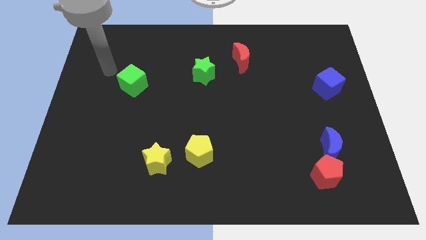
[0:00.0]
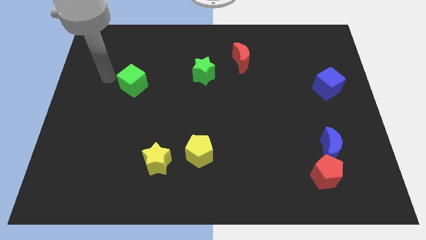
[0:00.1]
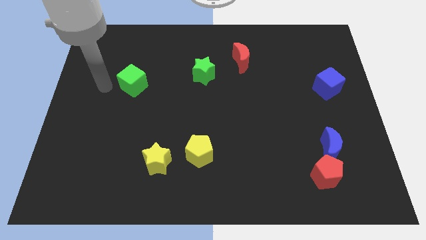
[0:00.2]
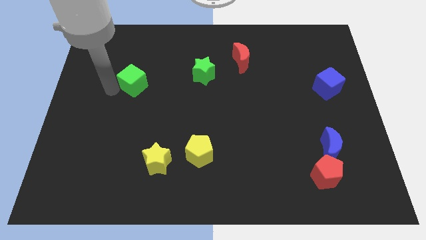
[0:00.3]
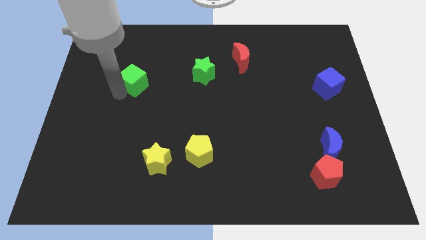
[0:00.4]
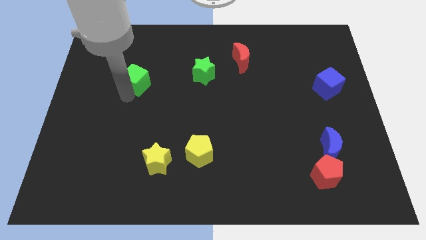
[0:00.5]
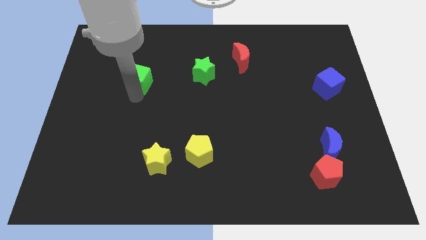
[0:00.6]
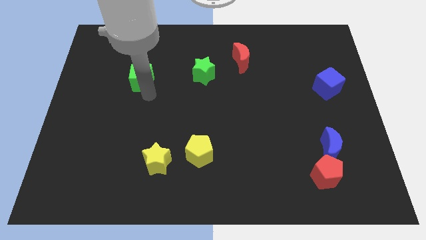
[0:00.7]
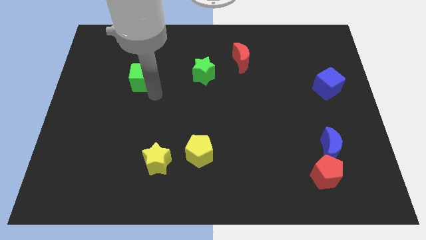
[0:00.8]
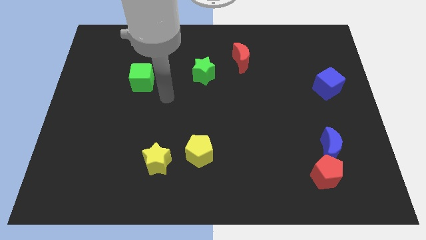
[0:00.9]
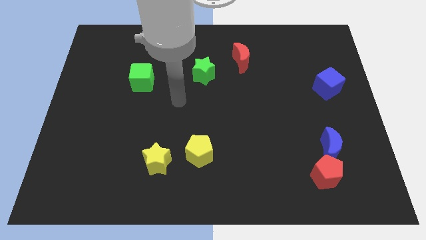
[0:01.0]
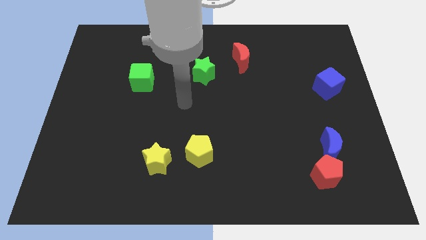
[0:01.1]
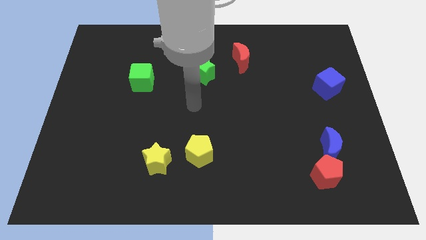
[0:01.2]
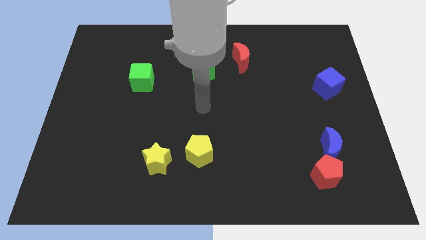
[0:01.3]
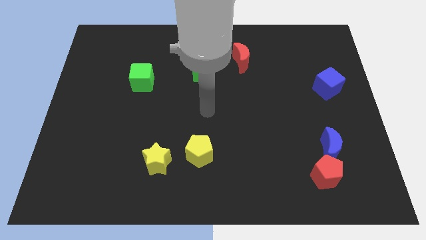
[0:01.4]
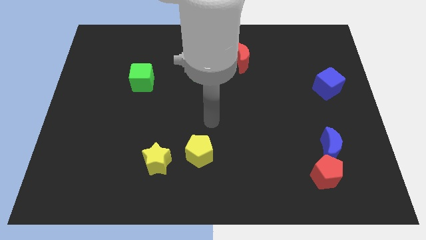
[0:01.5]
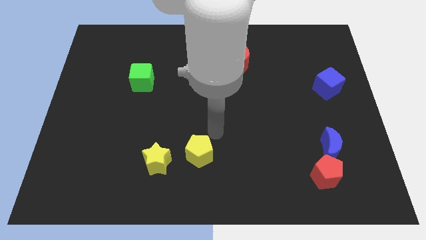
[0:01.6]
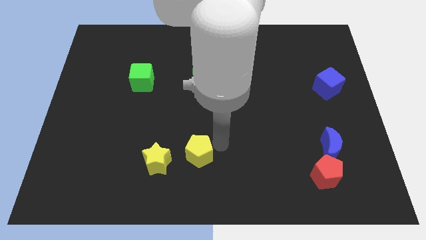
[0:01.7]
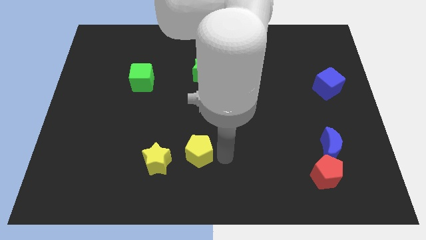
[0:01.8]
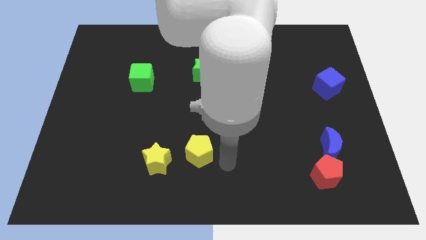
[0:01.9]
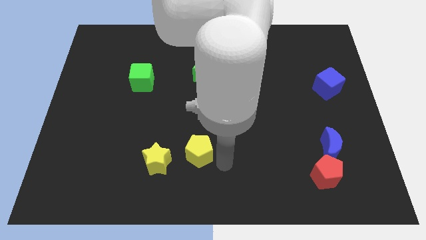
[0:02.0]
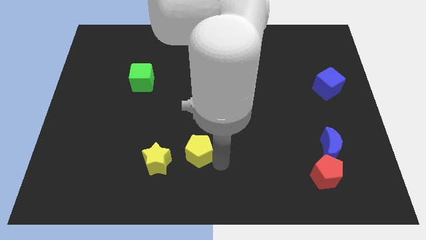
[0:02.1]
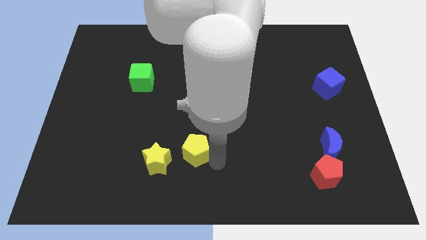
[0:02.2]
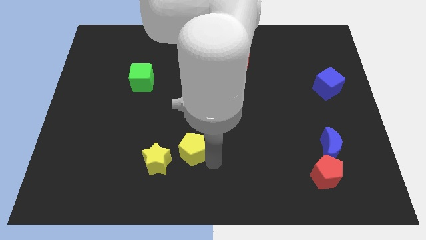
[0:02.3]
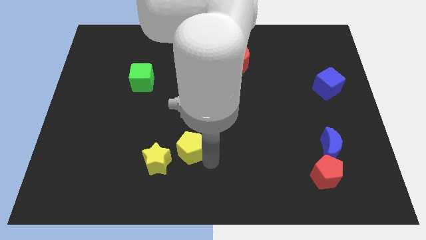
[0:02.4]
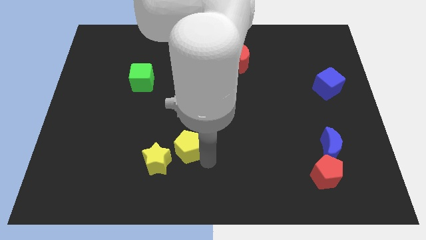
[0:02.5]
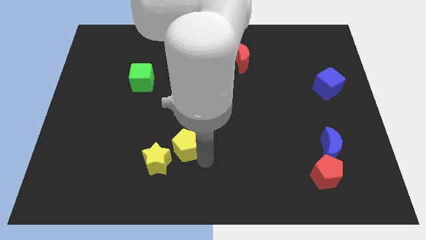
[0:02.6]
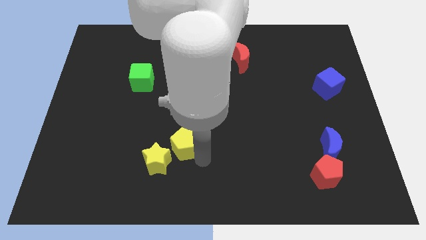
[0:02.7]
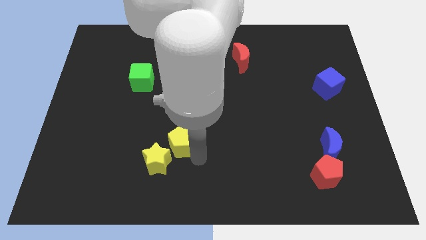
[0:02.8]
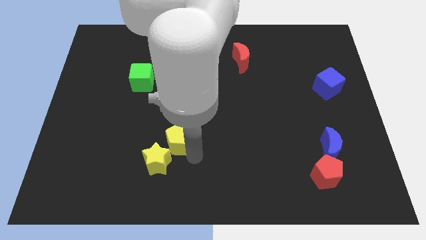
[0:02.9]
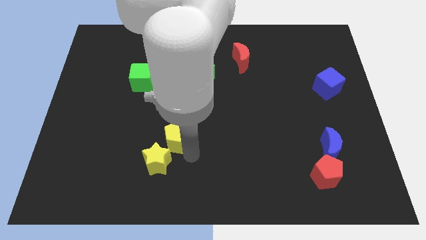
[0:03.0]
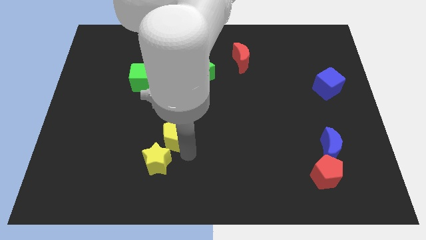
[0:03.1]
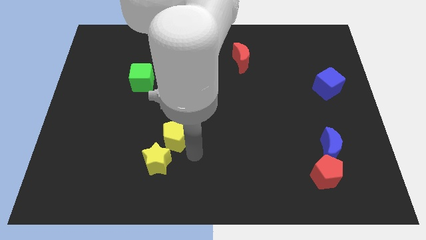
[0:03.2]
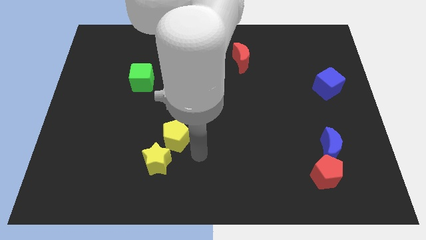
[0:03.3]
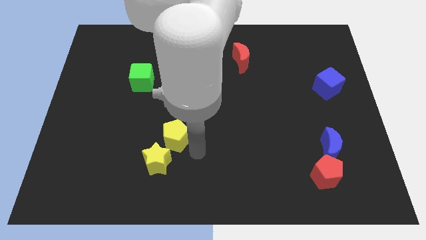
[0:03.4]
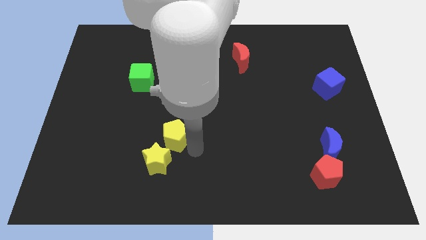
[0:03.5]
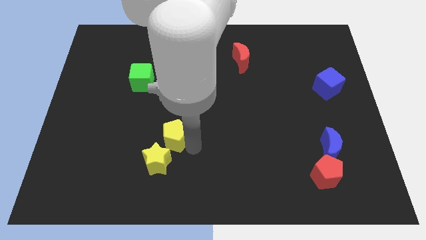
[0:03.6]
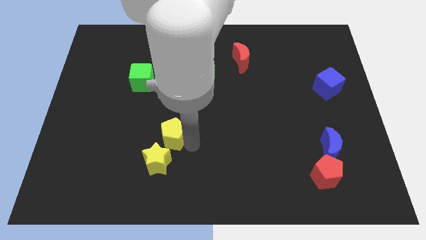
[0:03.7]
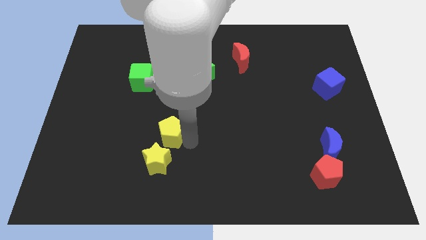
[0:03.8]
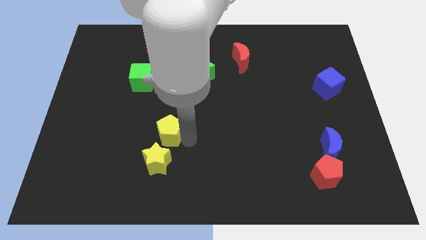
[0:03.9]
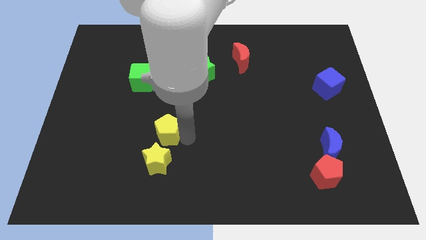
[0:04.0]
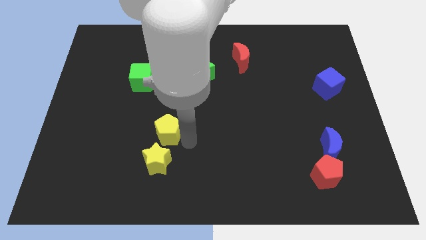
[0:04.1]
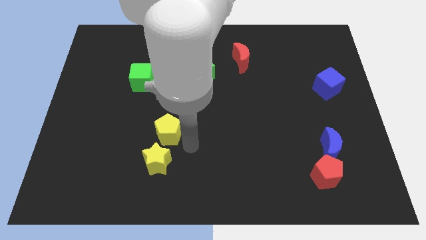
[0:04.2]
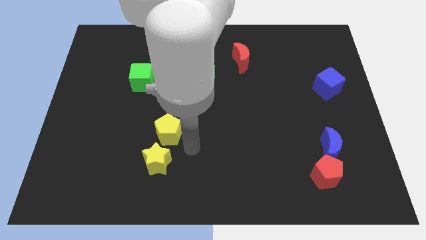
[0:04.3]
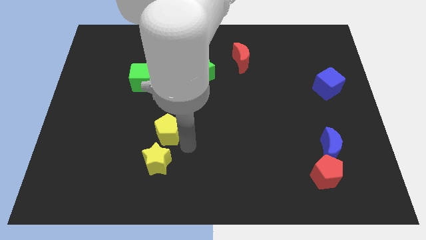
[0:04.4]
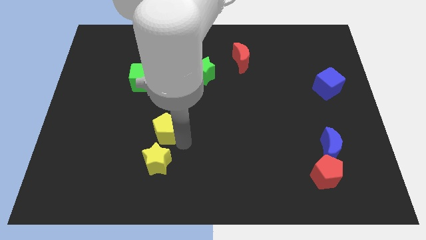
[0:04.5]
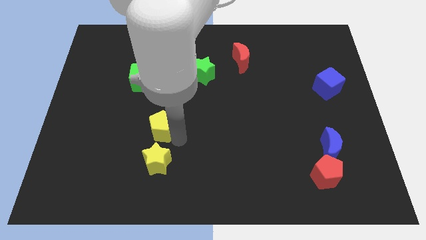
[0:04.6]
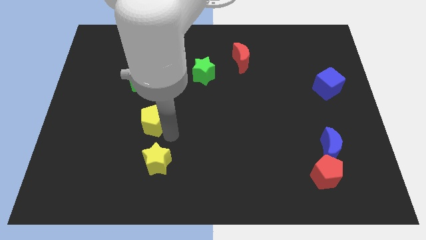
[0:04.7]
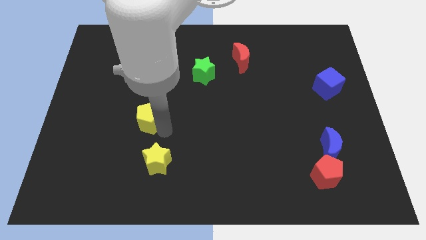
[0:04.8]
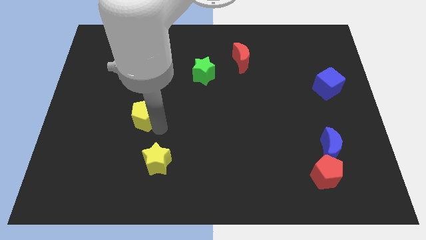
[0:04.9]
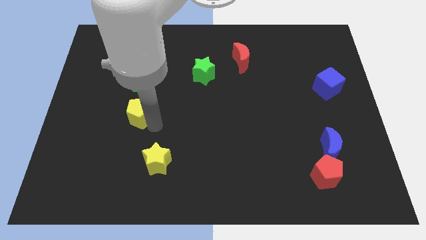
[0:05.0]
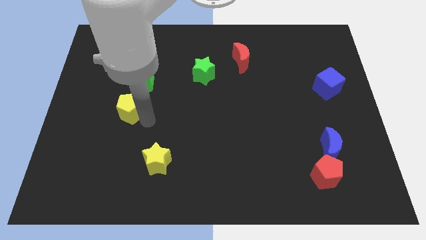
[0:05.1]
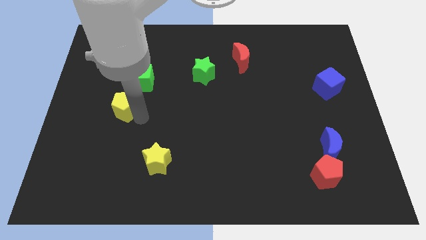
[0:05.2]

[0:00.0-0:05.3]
slide the yellow pentagon upwards and left

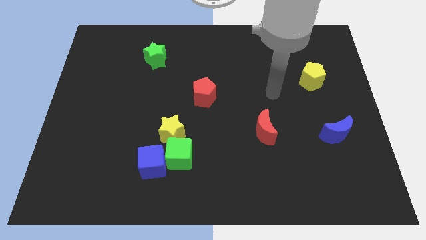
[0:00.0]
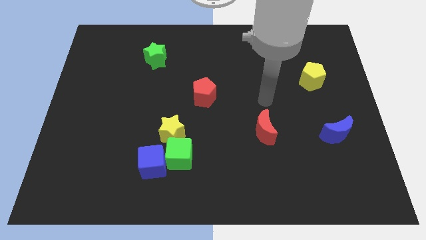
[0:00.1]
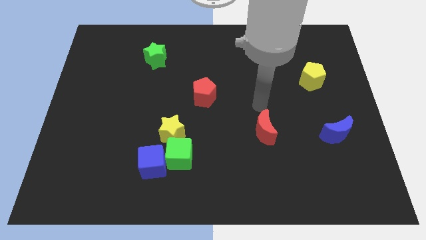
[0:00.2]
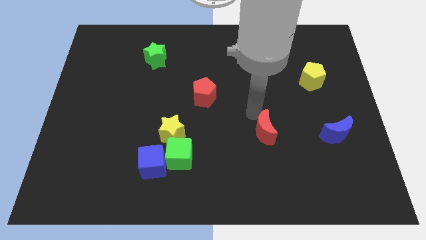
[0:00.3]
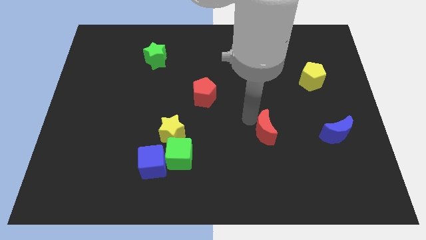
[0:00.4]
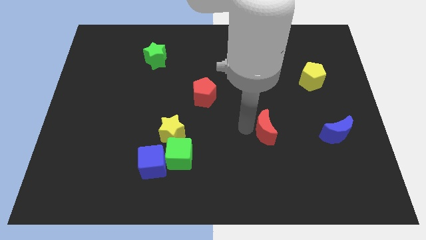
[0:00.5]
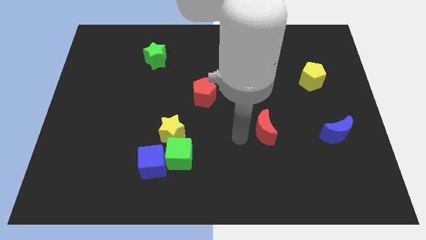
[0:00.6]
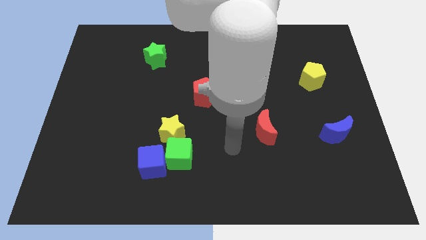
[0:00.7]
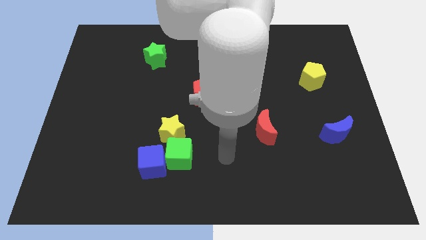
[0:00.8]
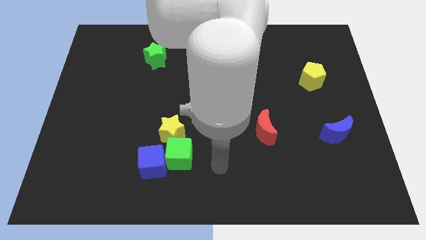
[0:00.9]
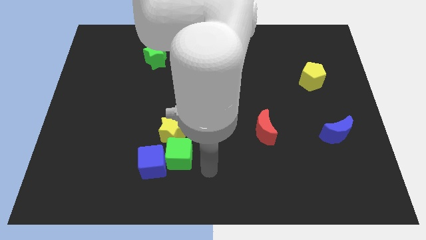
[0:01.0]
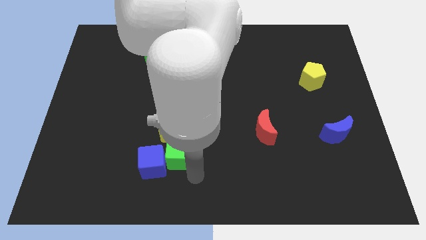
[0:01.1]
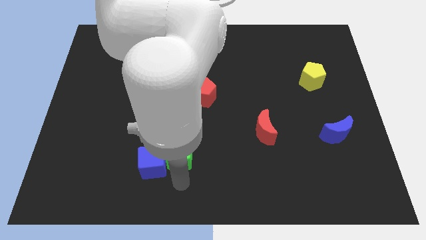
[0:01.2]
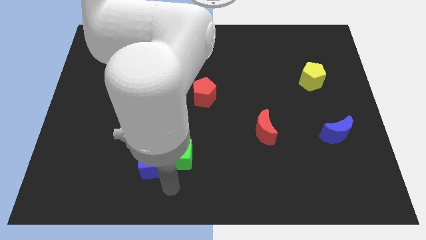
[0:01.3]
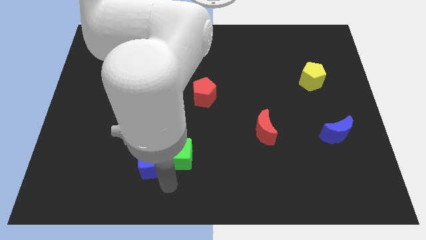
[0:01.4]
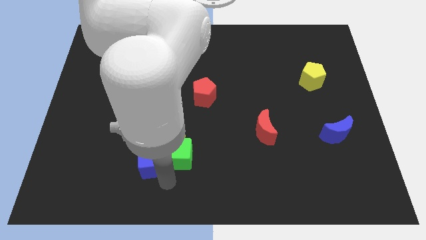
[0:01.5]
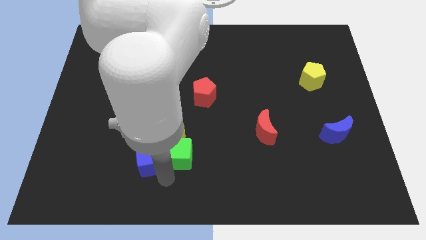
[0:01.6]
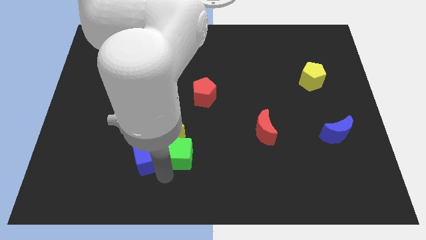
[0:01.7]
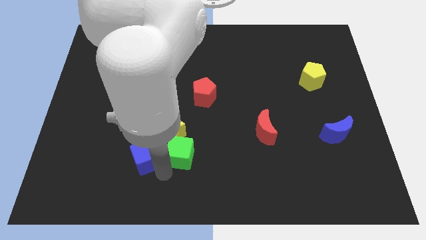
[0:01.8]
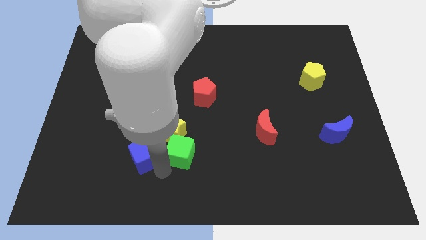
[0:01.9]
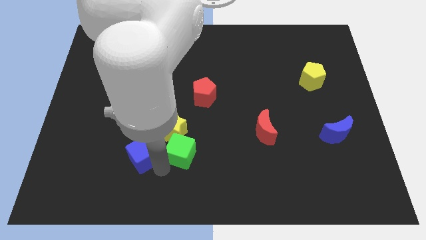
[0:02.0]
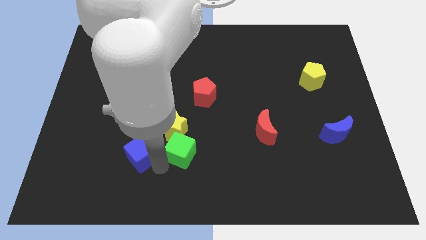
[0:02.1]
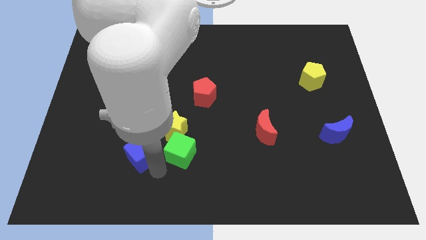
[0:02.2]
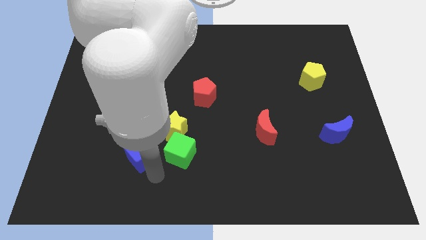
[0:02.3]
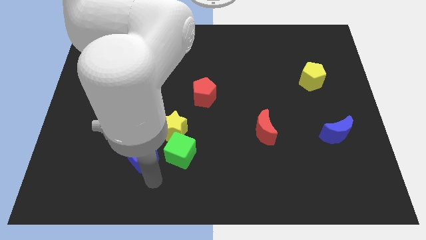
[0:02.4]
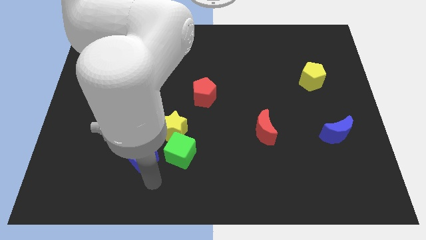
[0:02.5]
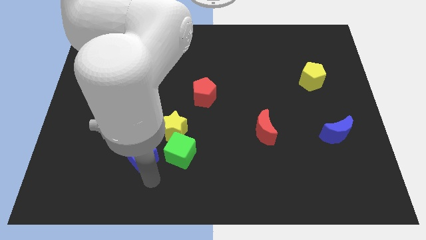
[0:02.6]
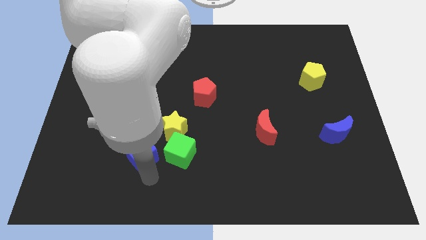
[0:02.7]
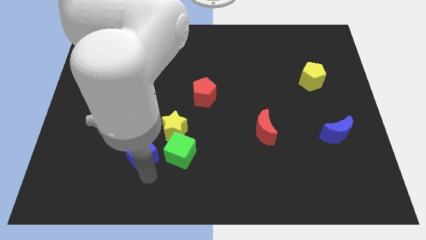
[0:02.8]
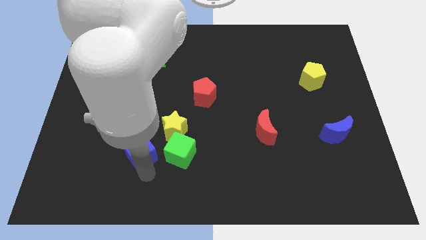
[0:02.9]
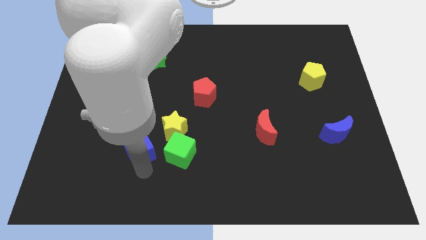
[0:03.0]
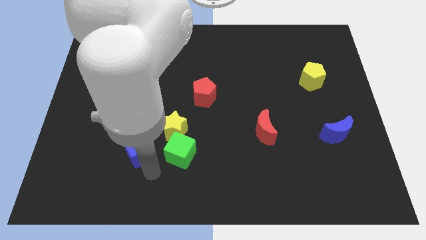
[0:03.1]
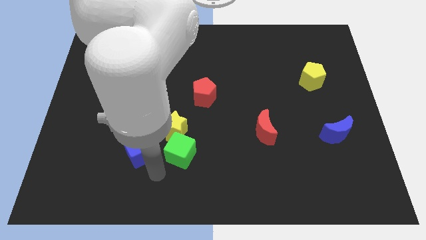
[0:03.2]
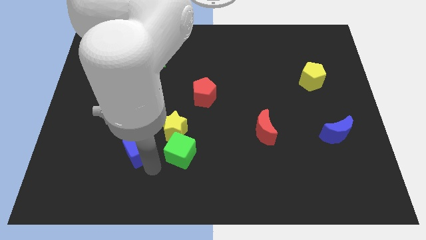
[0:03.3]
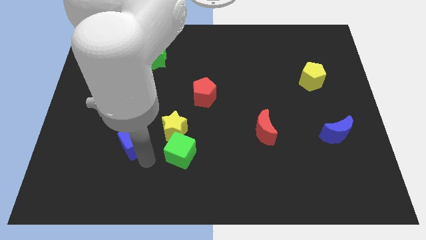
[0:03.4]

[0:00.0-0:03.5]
slide the blue cube a little upwards and then left
